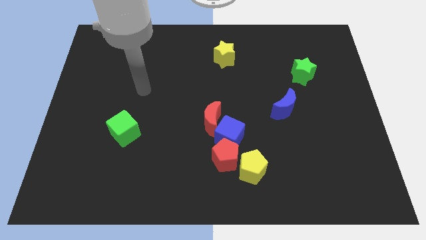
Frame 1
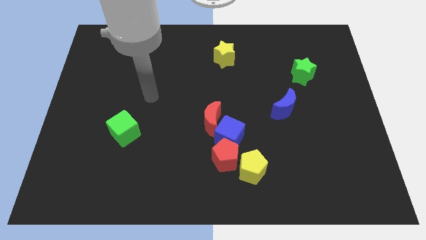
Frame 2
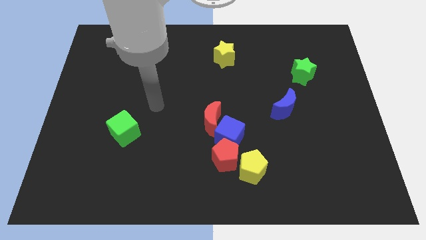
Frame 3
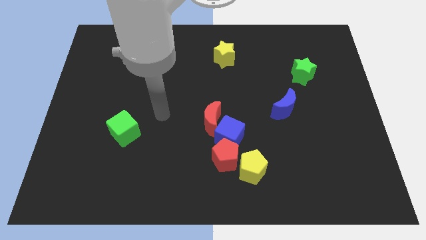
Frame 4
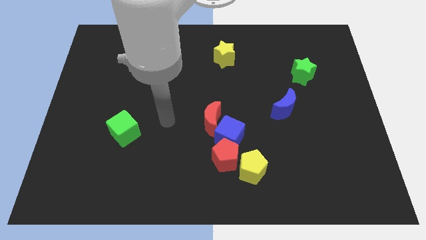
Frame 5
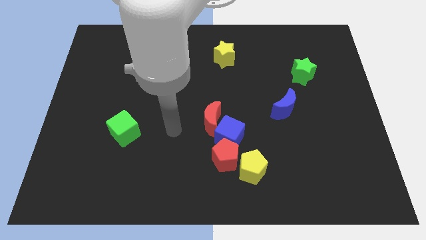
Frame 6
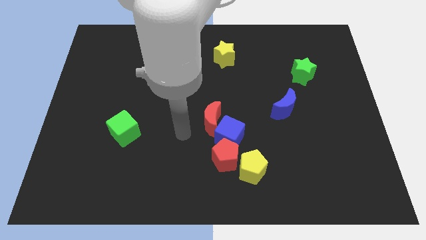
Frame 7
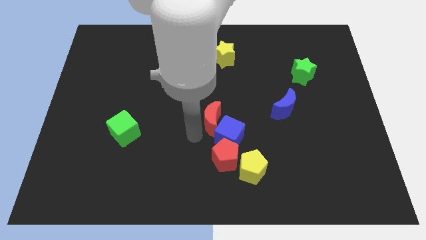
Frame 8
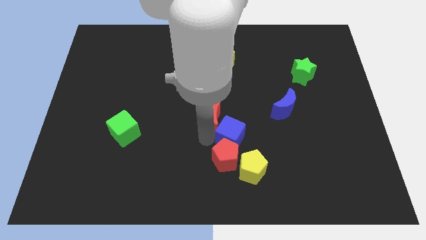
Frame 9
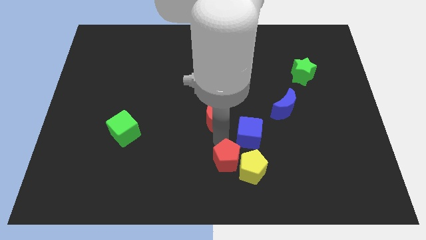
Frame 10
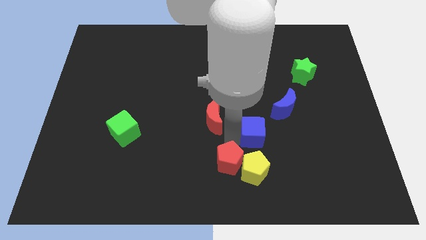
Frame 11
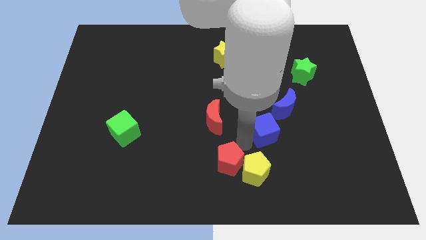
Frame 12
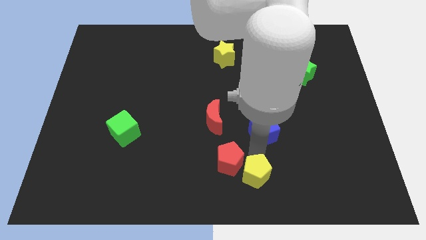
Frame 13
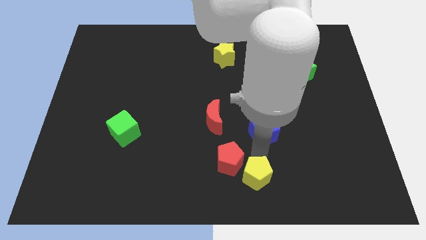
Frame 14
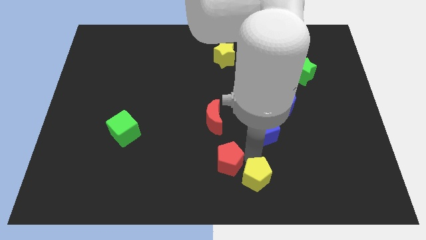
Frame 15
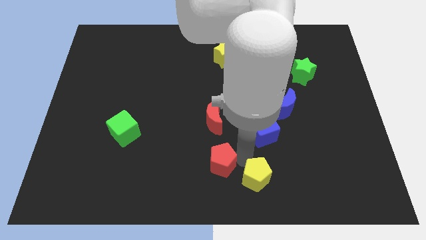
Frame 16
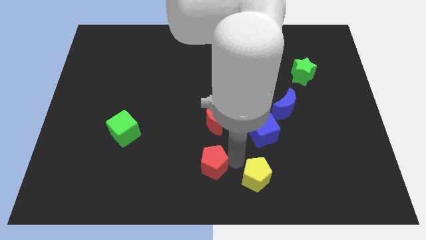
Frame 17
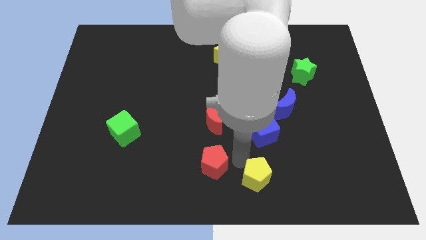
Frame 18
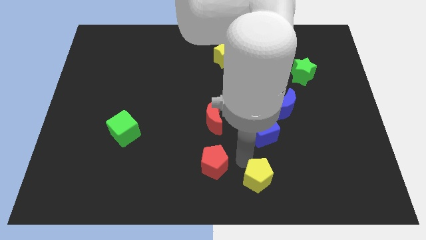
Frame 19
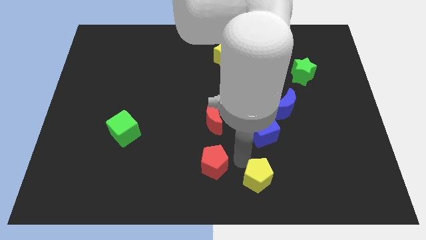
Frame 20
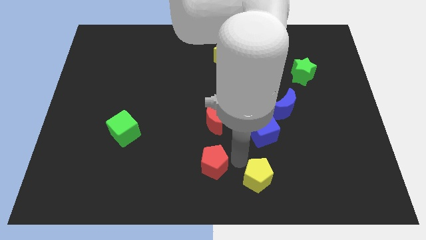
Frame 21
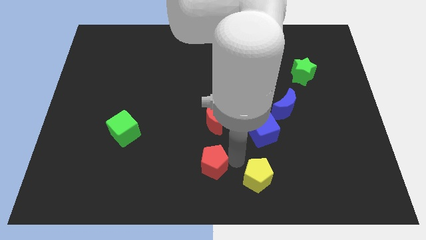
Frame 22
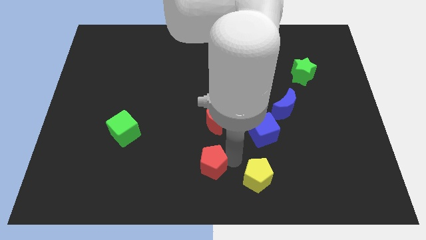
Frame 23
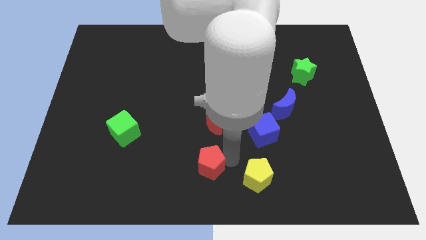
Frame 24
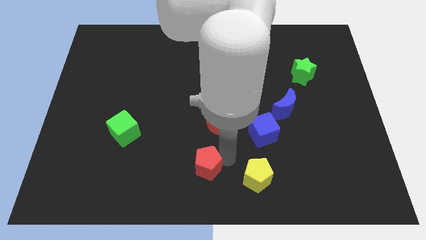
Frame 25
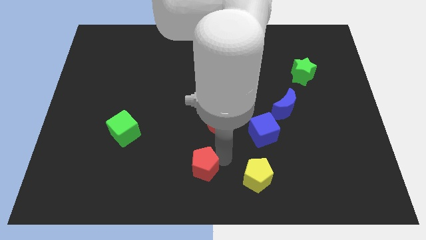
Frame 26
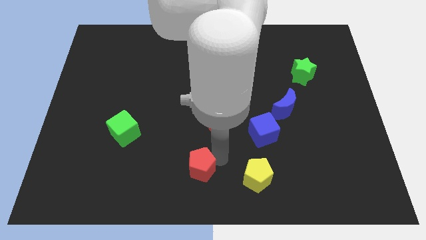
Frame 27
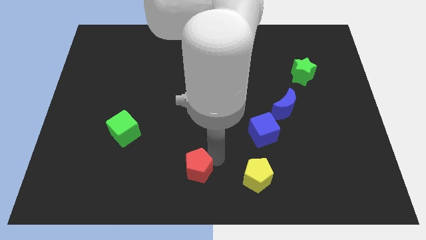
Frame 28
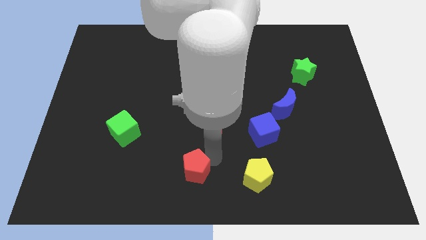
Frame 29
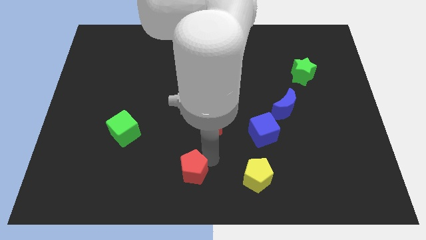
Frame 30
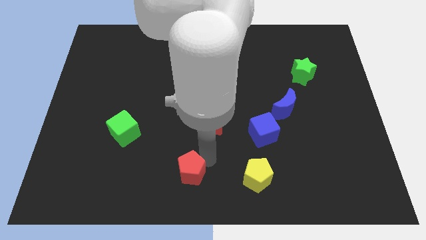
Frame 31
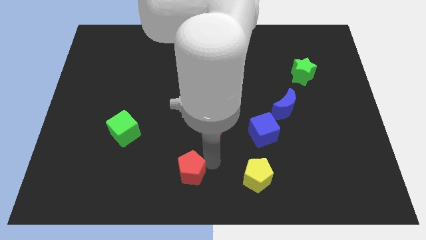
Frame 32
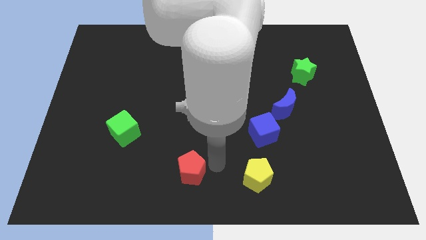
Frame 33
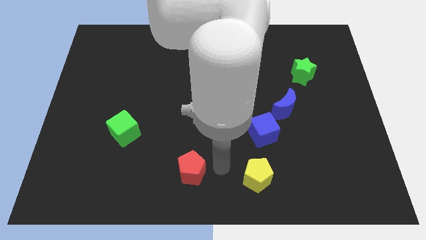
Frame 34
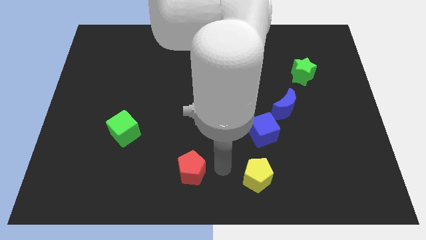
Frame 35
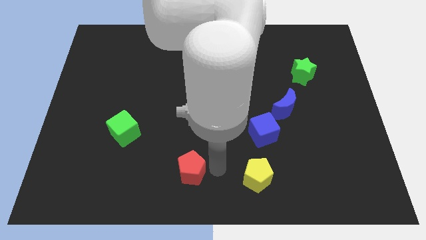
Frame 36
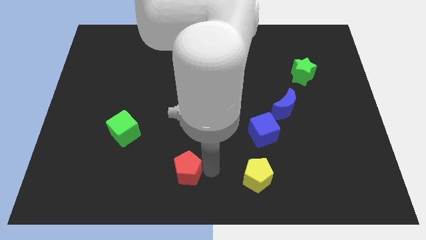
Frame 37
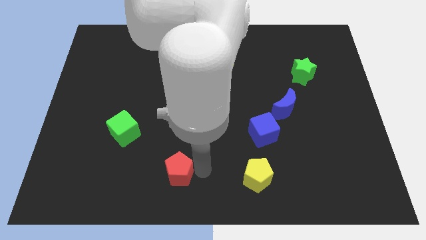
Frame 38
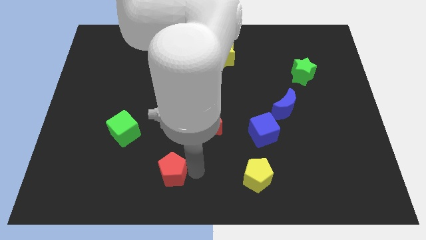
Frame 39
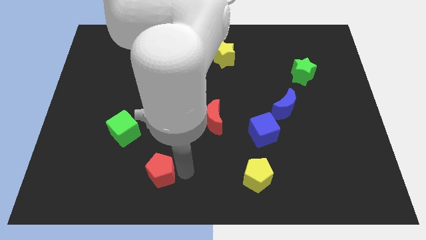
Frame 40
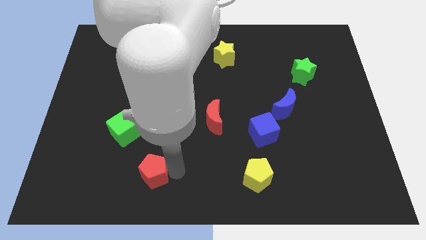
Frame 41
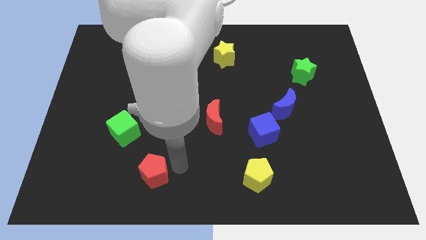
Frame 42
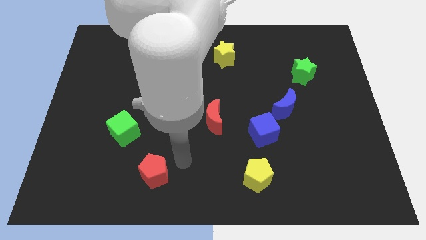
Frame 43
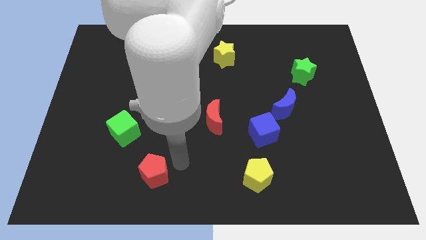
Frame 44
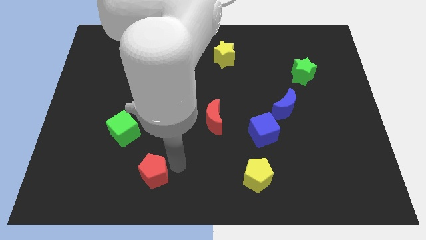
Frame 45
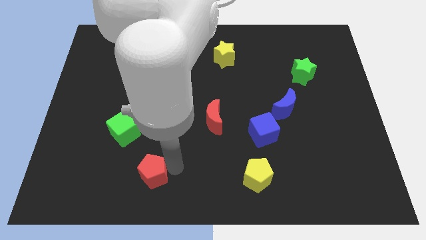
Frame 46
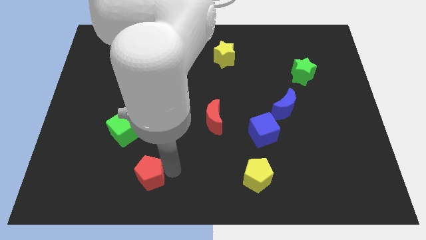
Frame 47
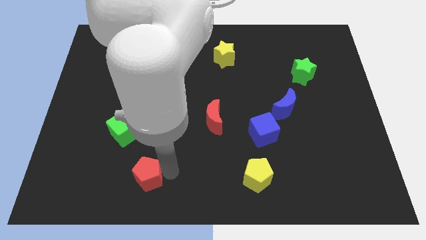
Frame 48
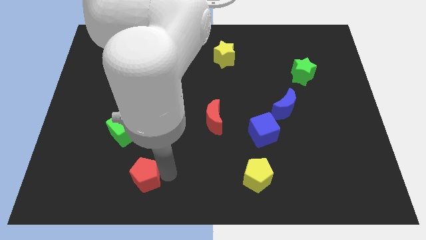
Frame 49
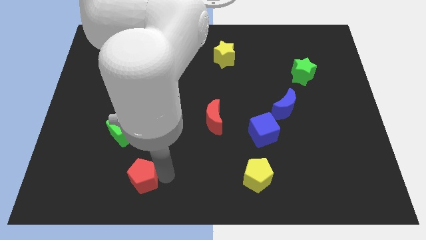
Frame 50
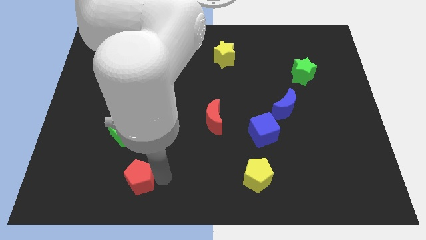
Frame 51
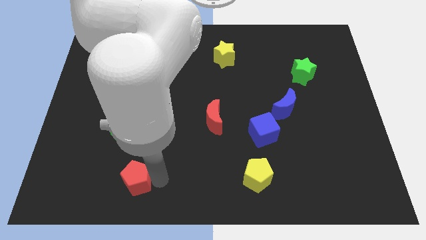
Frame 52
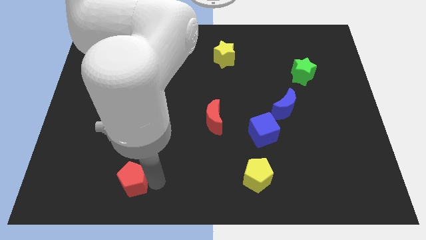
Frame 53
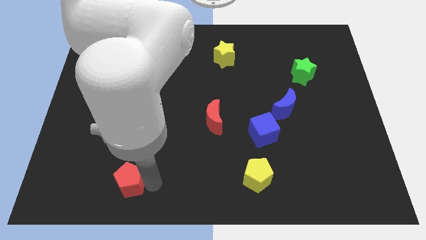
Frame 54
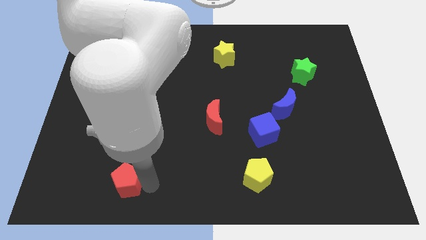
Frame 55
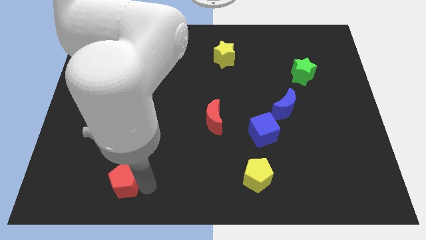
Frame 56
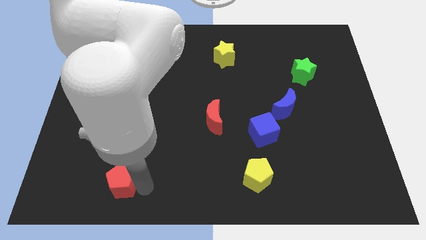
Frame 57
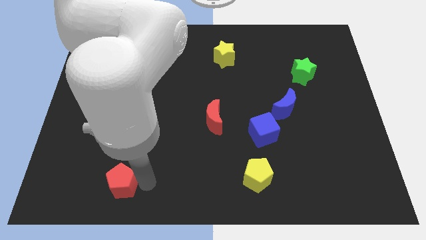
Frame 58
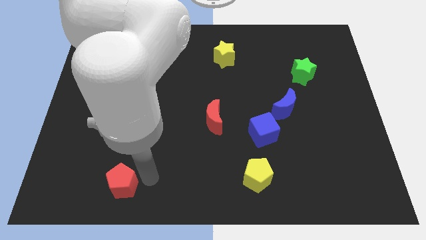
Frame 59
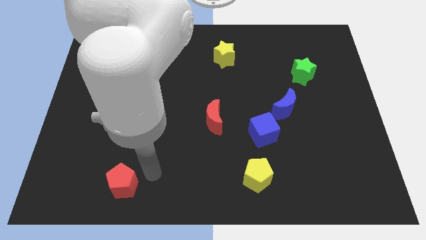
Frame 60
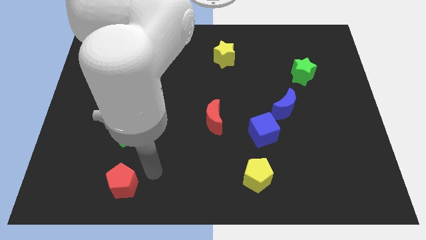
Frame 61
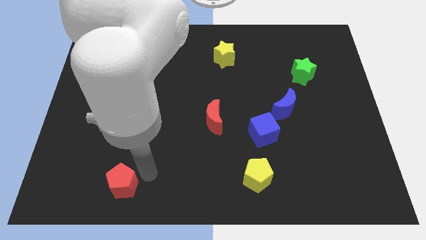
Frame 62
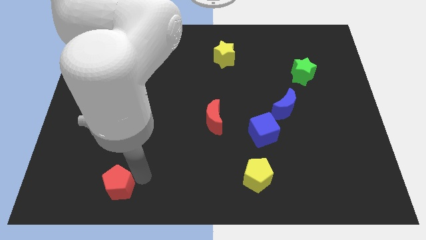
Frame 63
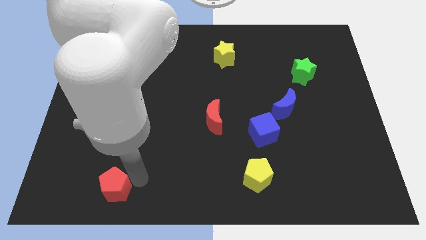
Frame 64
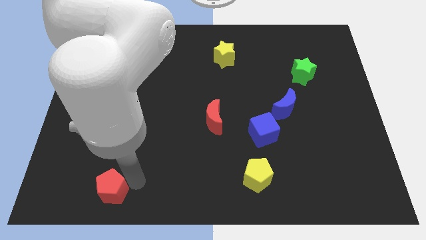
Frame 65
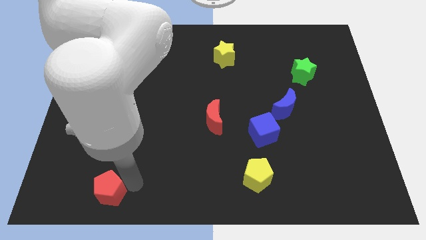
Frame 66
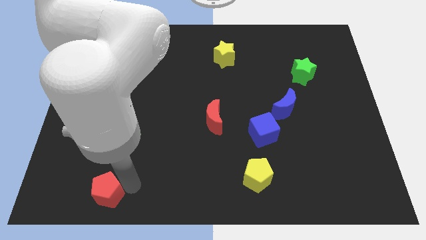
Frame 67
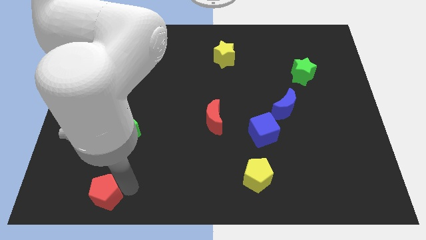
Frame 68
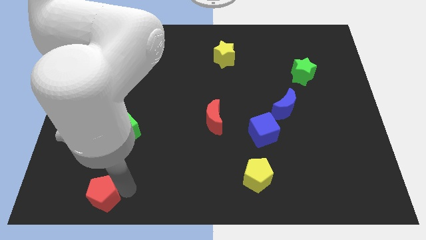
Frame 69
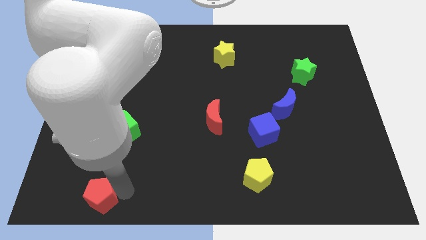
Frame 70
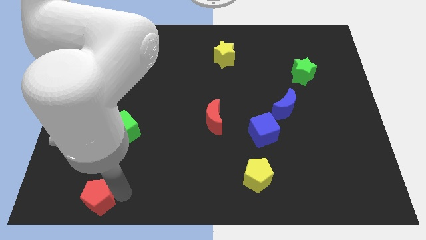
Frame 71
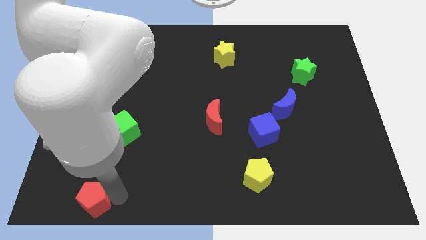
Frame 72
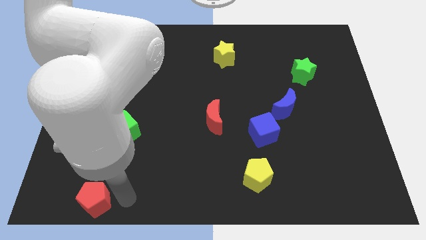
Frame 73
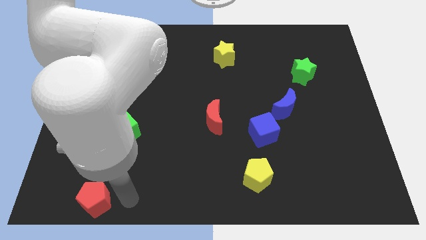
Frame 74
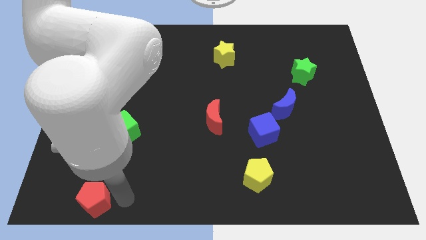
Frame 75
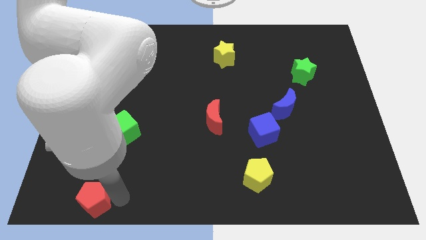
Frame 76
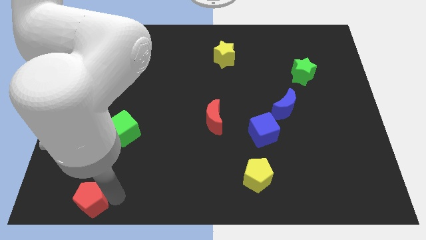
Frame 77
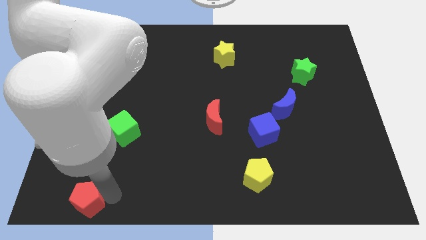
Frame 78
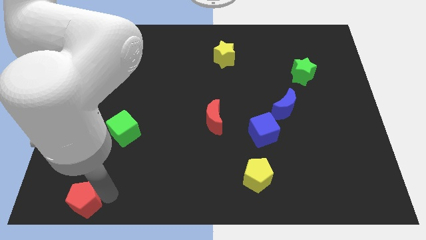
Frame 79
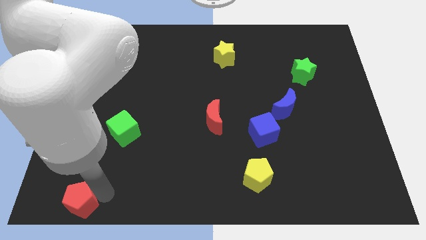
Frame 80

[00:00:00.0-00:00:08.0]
push the red pentagon to the bottom left
